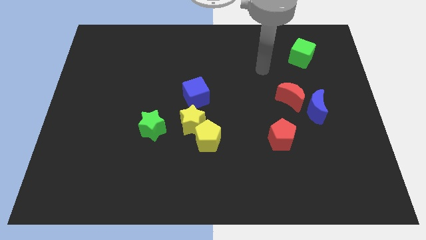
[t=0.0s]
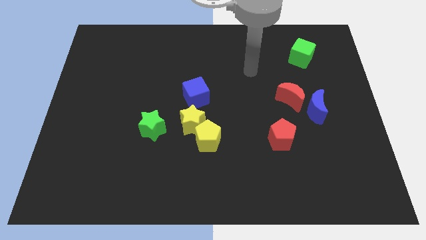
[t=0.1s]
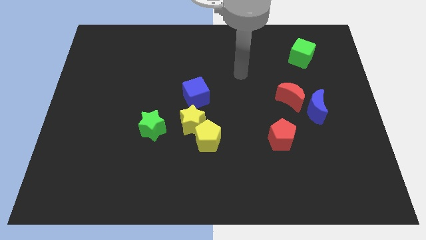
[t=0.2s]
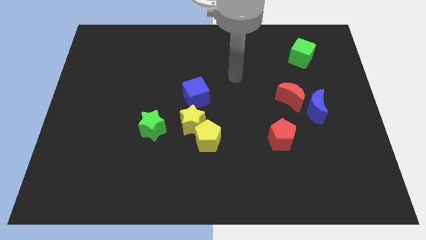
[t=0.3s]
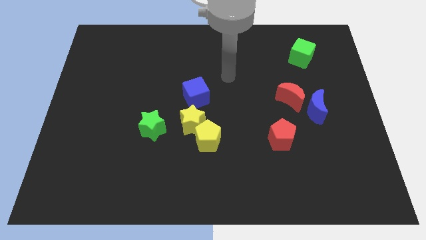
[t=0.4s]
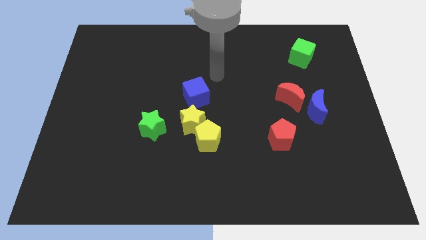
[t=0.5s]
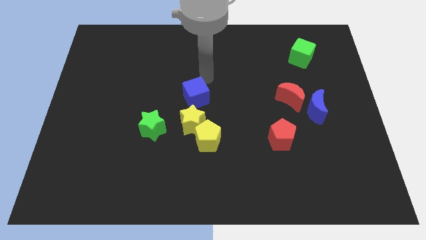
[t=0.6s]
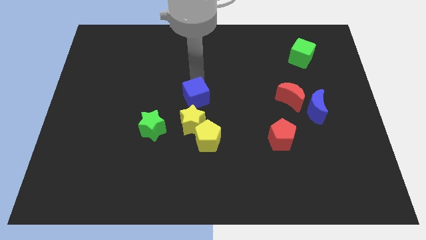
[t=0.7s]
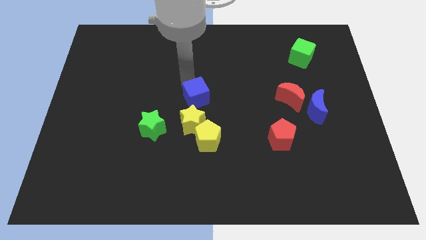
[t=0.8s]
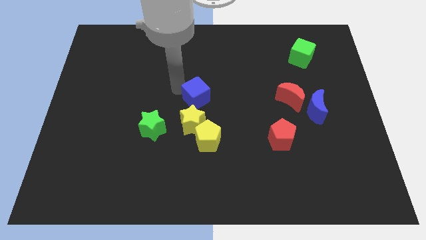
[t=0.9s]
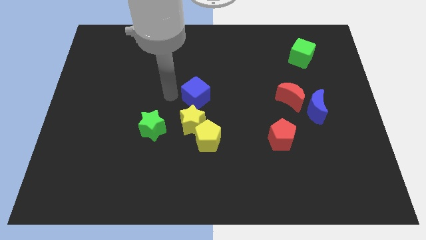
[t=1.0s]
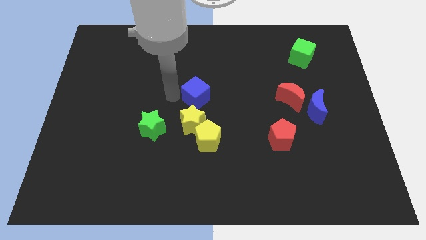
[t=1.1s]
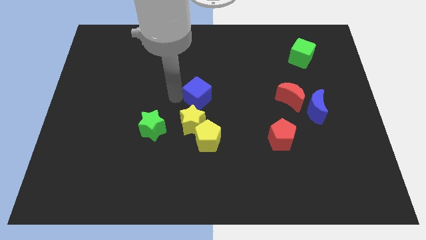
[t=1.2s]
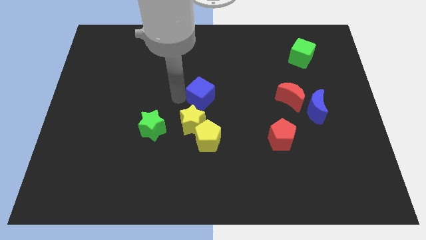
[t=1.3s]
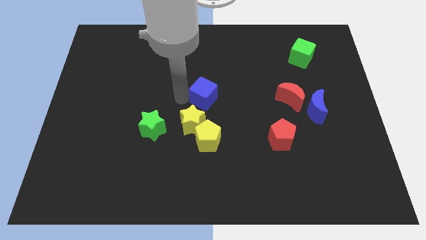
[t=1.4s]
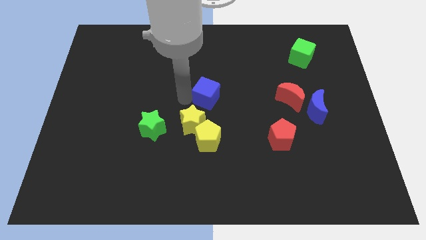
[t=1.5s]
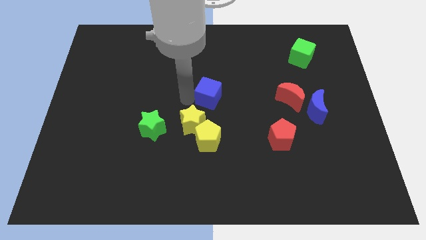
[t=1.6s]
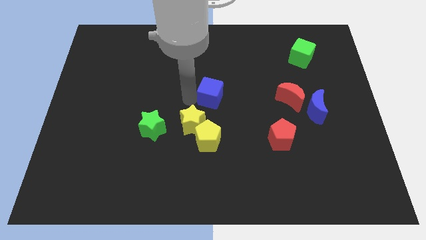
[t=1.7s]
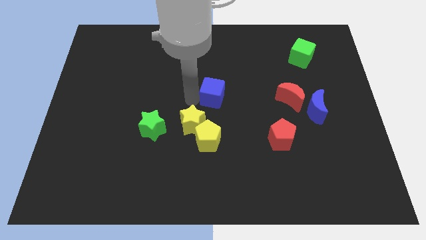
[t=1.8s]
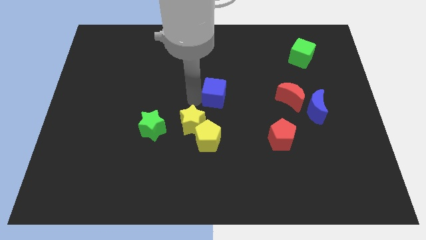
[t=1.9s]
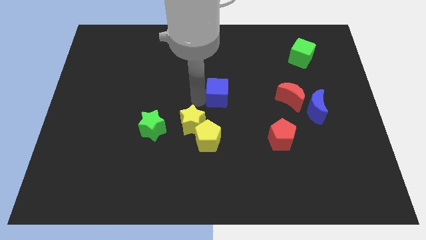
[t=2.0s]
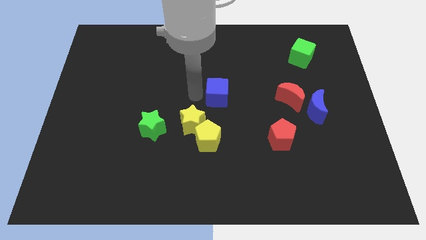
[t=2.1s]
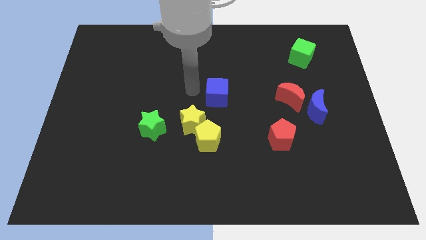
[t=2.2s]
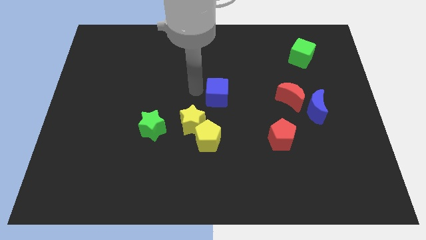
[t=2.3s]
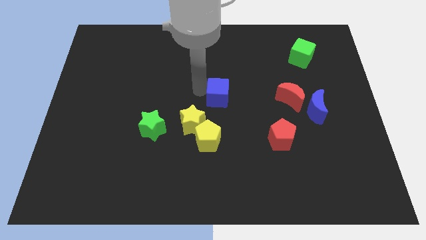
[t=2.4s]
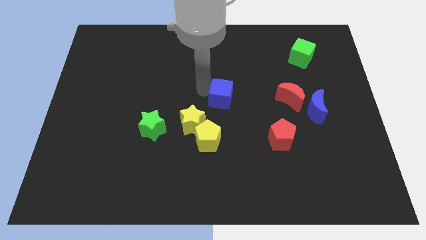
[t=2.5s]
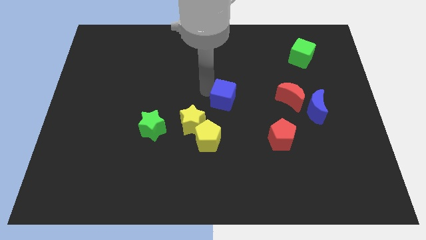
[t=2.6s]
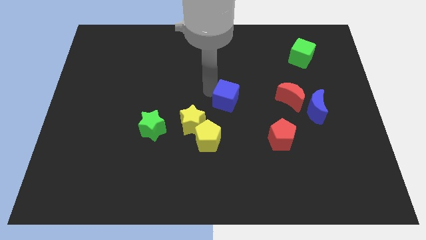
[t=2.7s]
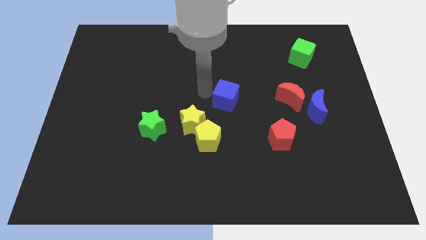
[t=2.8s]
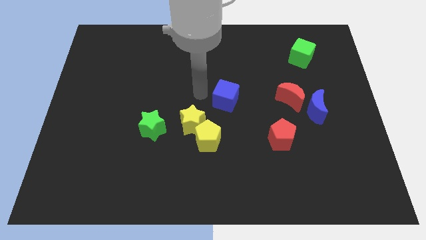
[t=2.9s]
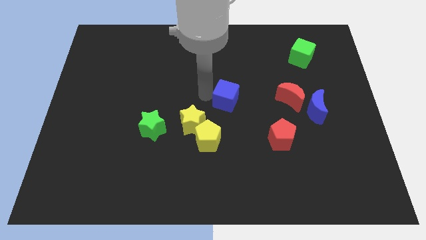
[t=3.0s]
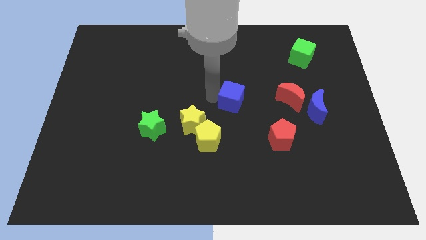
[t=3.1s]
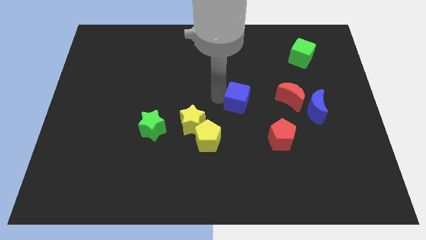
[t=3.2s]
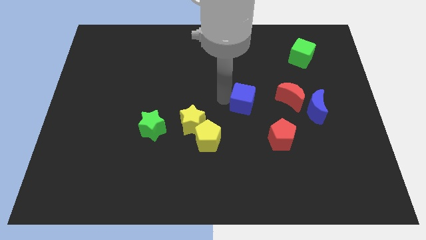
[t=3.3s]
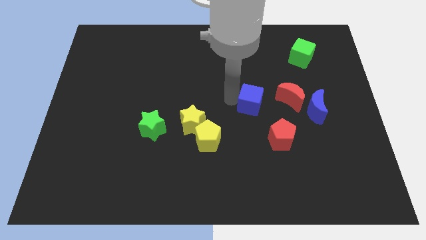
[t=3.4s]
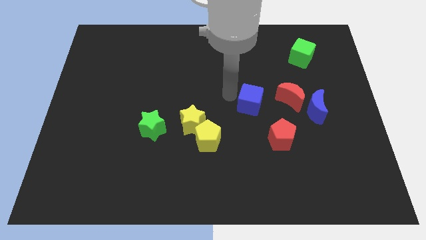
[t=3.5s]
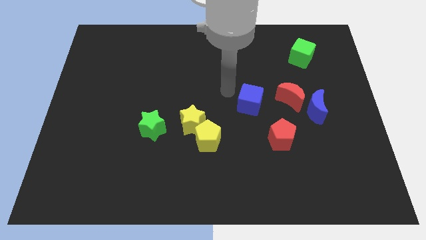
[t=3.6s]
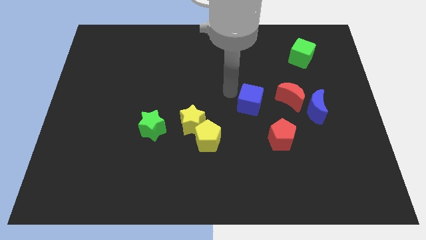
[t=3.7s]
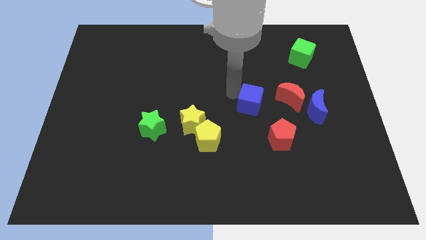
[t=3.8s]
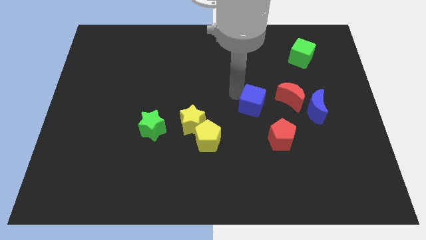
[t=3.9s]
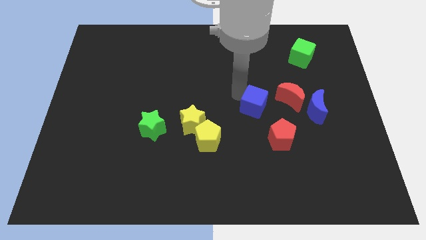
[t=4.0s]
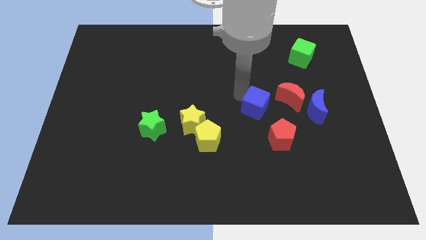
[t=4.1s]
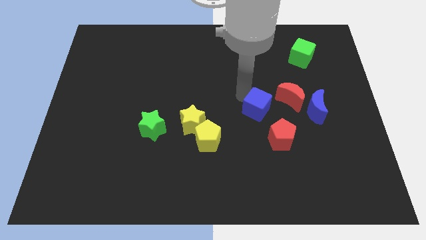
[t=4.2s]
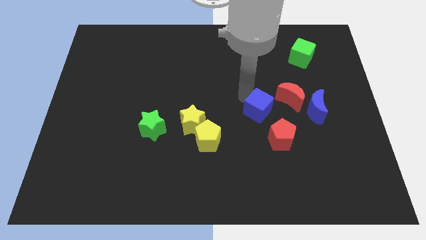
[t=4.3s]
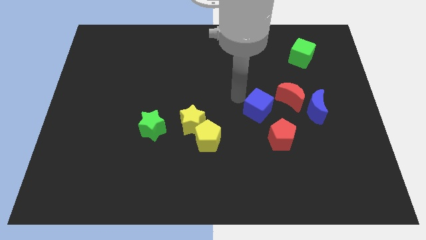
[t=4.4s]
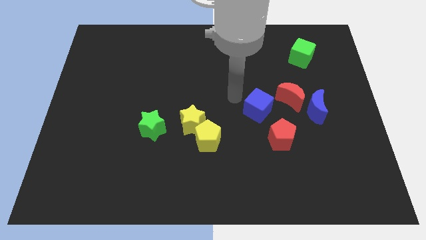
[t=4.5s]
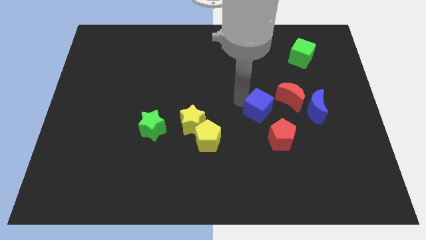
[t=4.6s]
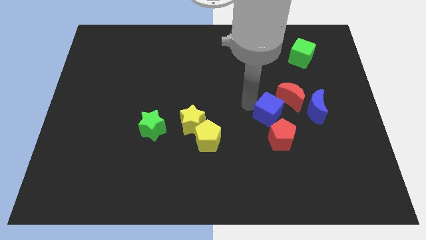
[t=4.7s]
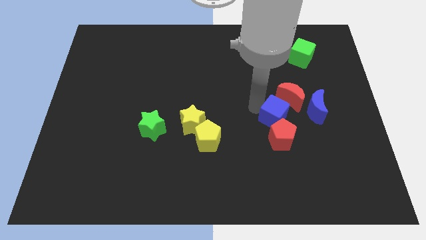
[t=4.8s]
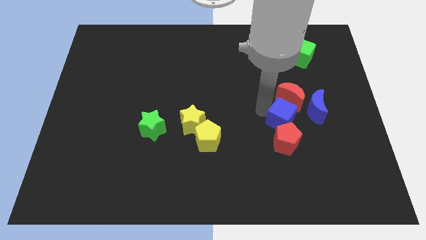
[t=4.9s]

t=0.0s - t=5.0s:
move the blue cube to the bottom left side of the blue moon

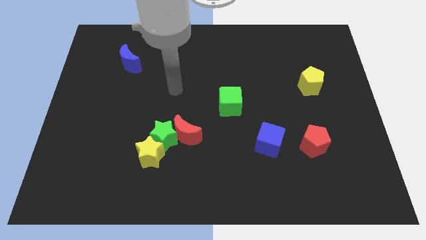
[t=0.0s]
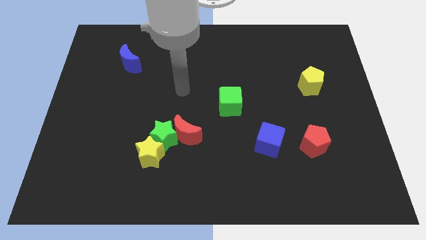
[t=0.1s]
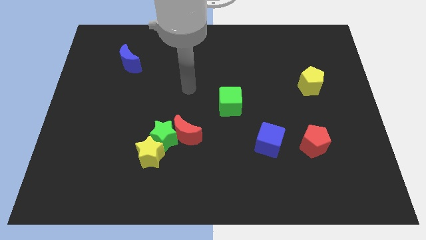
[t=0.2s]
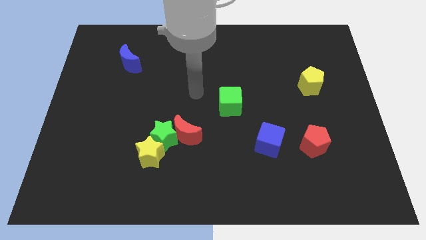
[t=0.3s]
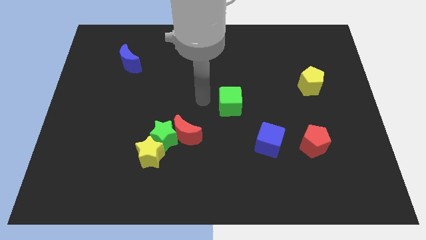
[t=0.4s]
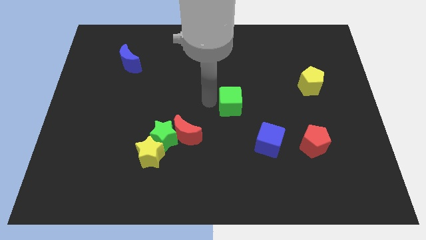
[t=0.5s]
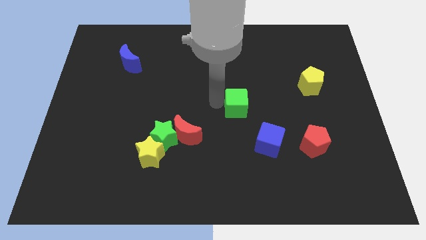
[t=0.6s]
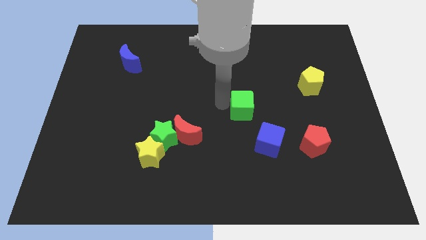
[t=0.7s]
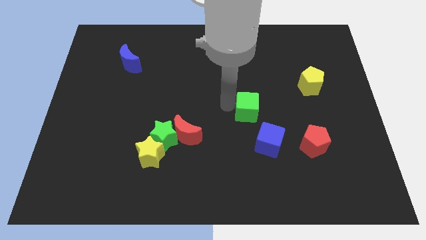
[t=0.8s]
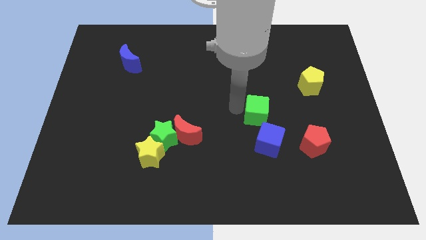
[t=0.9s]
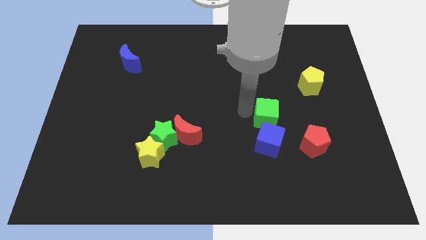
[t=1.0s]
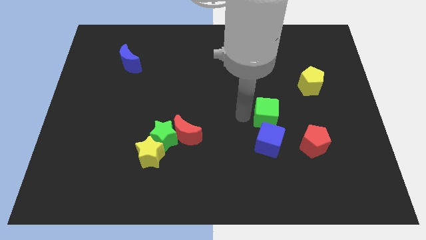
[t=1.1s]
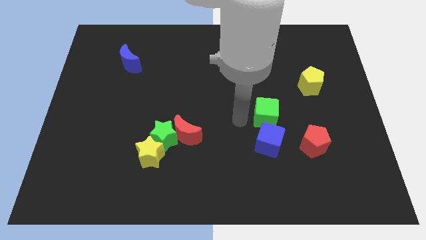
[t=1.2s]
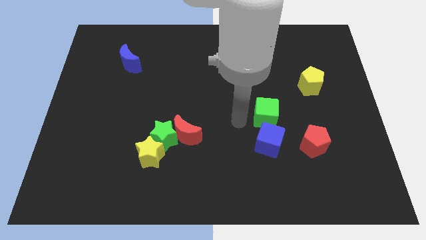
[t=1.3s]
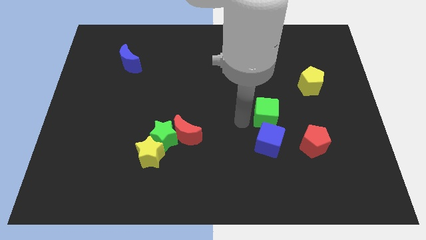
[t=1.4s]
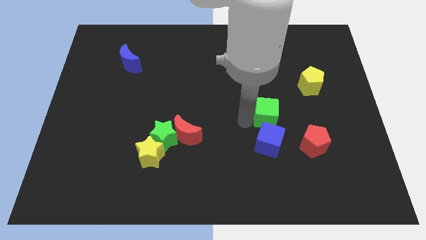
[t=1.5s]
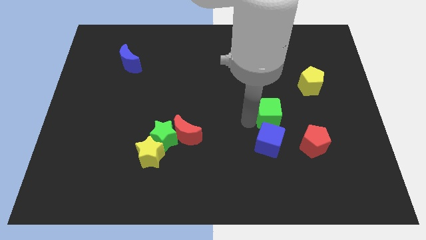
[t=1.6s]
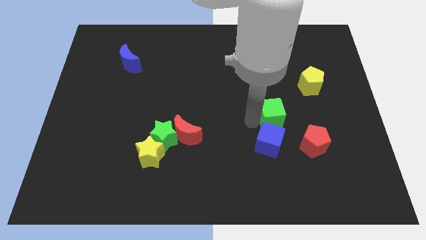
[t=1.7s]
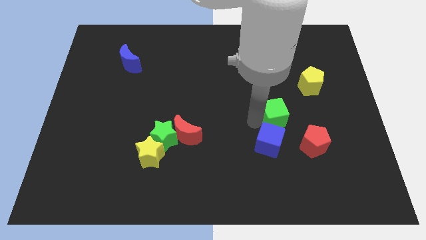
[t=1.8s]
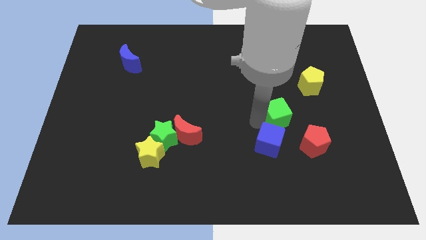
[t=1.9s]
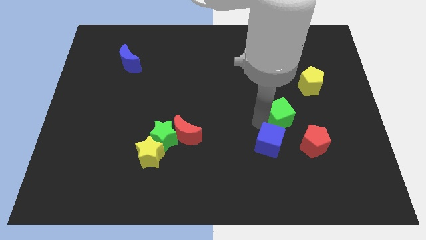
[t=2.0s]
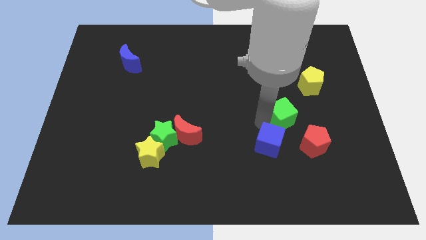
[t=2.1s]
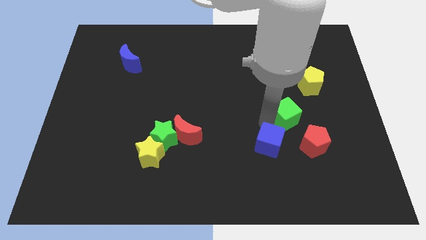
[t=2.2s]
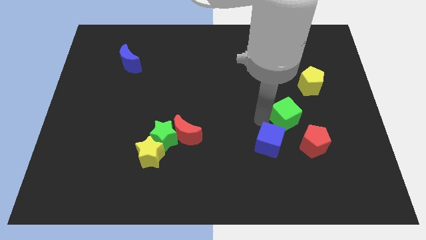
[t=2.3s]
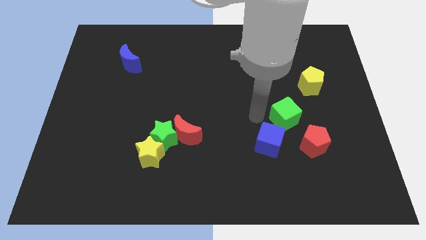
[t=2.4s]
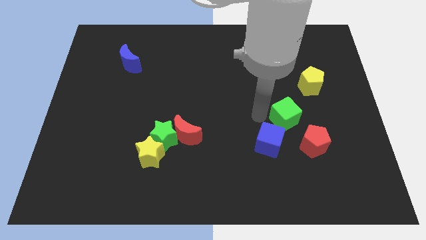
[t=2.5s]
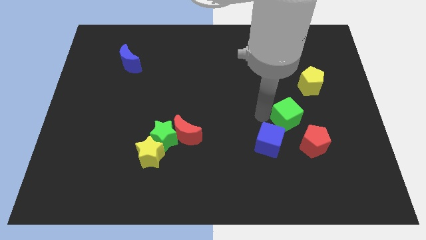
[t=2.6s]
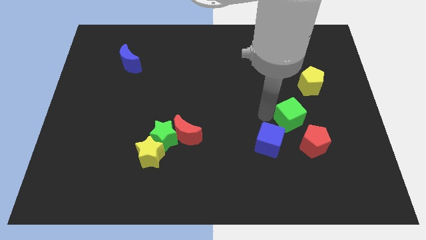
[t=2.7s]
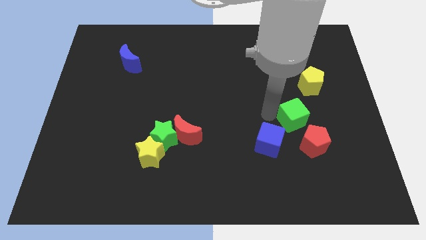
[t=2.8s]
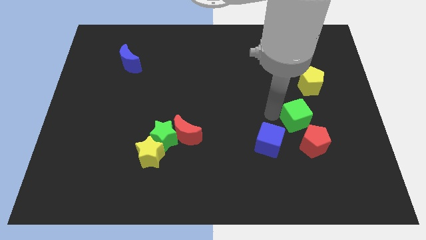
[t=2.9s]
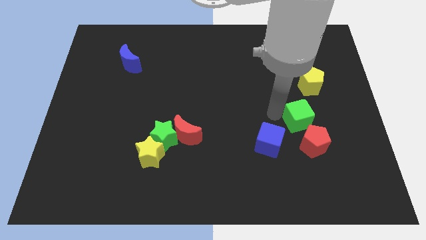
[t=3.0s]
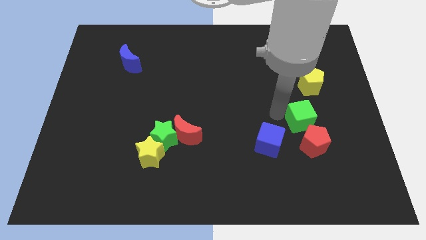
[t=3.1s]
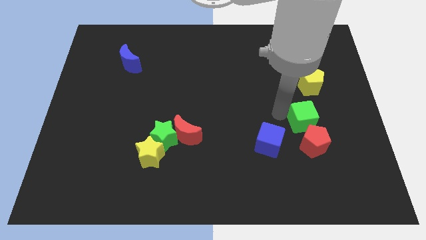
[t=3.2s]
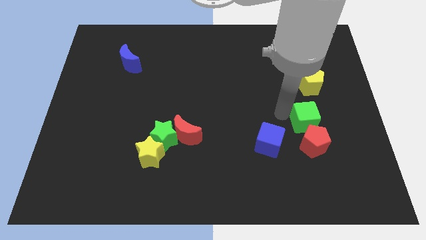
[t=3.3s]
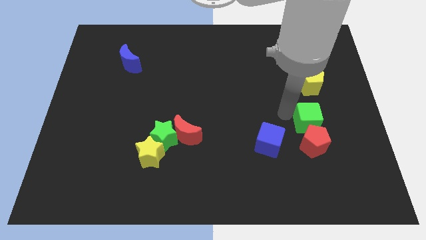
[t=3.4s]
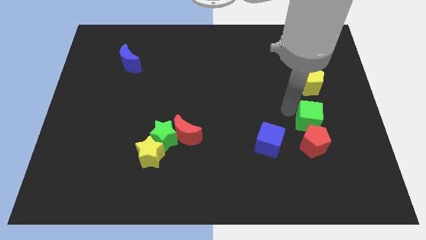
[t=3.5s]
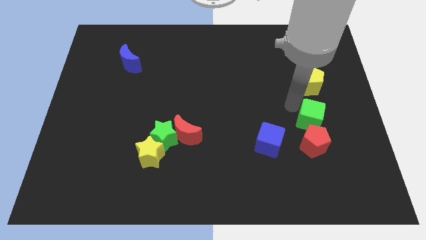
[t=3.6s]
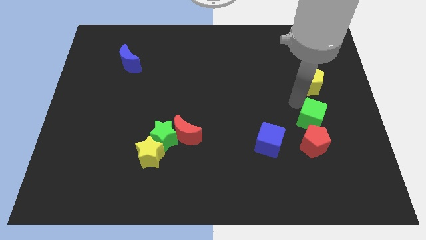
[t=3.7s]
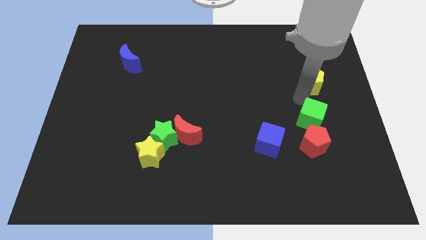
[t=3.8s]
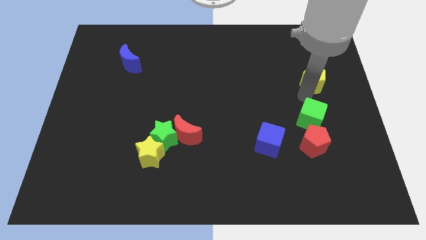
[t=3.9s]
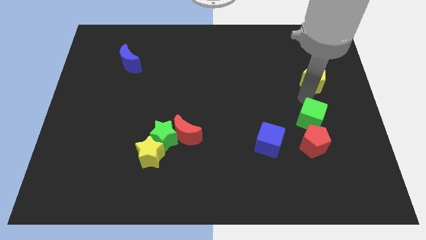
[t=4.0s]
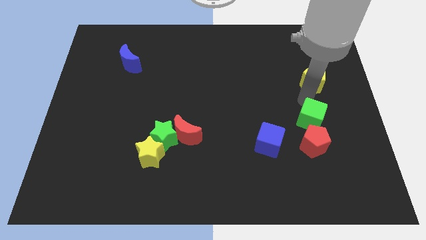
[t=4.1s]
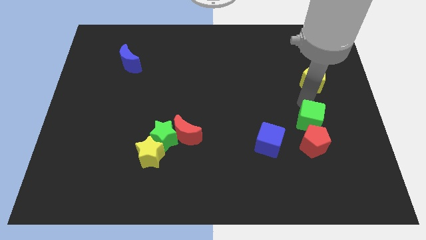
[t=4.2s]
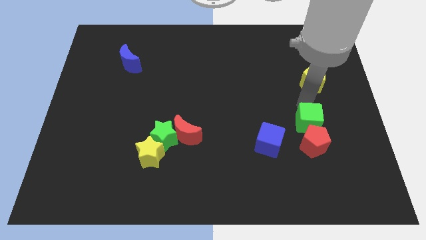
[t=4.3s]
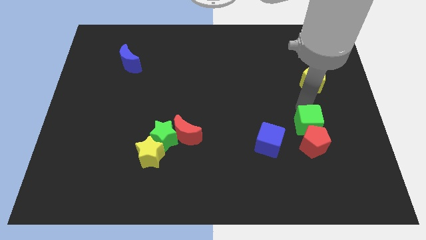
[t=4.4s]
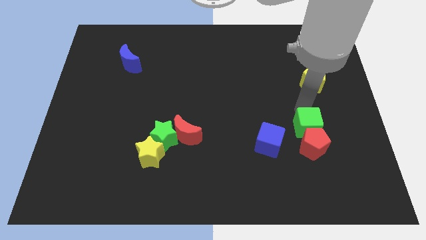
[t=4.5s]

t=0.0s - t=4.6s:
move the green cube right of the blue cube
